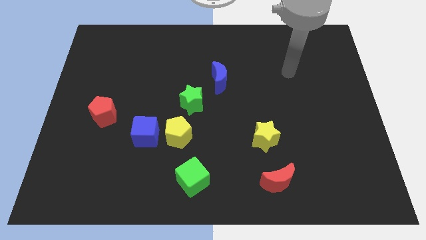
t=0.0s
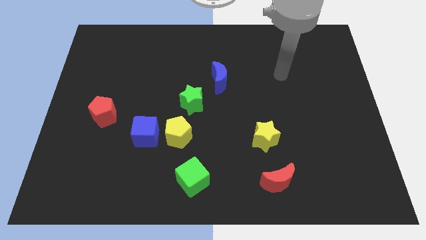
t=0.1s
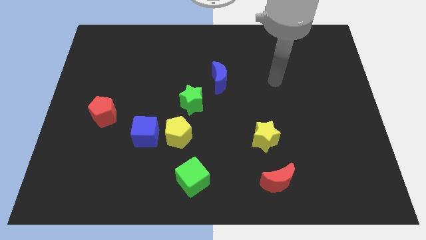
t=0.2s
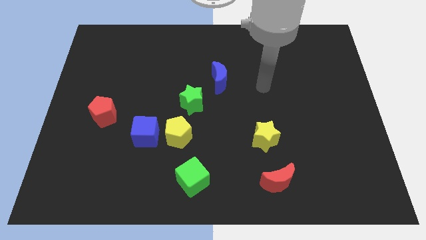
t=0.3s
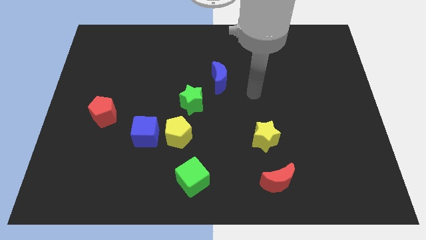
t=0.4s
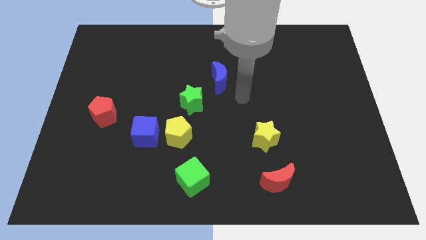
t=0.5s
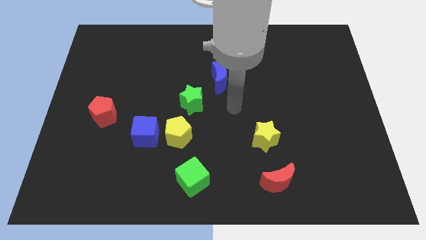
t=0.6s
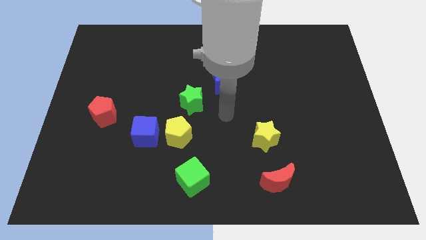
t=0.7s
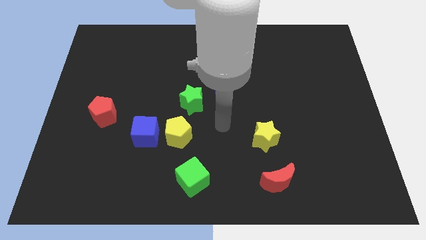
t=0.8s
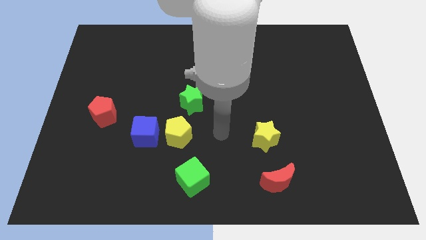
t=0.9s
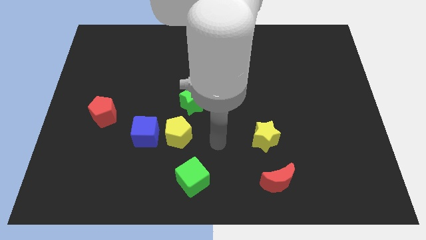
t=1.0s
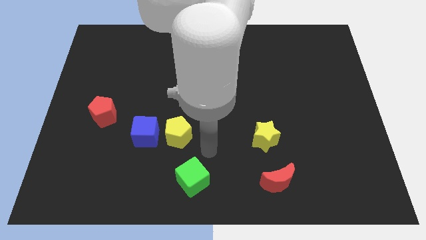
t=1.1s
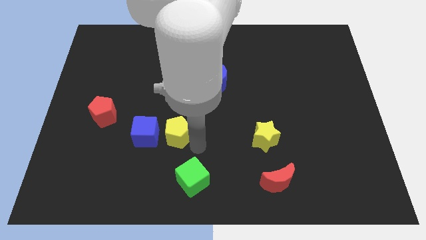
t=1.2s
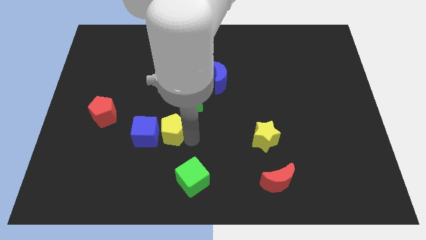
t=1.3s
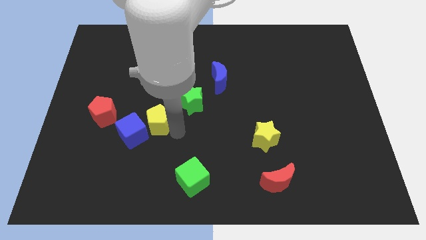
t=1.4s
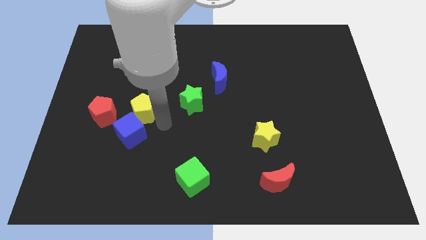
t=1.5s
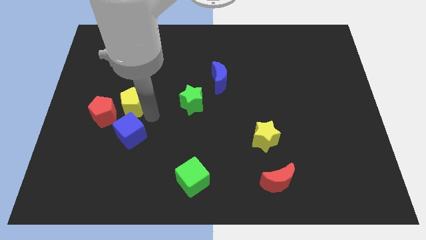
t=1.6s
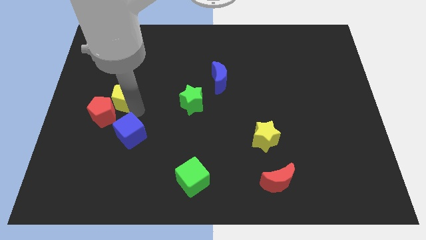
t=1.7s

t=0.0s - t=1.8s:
separate the blue cube from the yellow pentagon

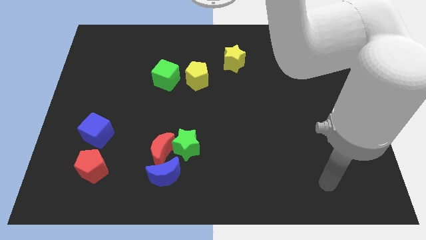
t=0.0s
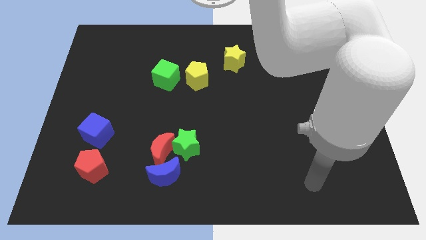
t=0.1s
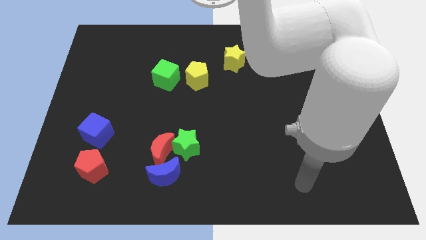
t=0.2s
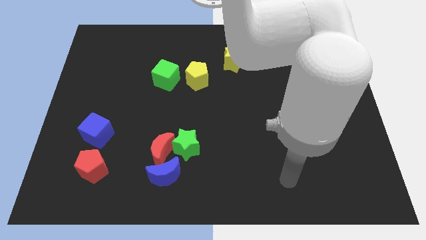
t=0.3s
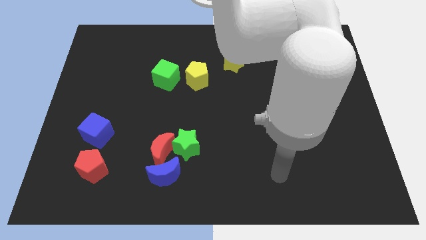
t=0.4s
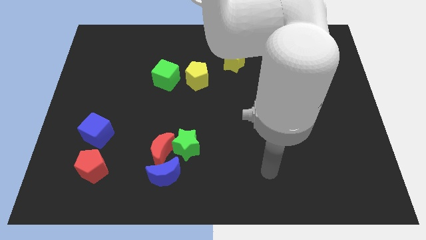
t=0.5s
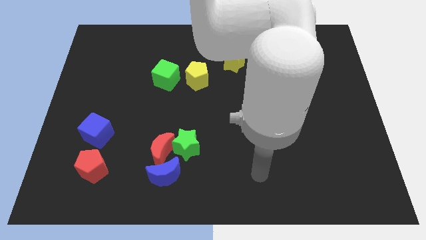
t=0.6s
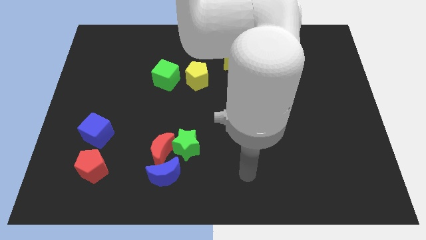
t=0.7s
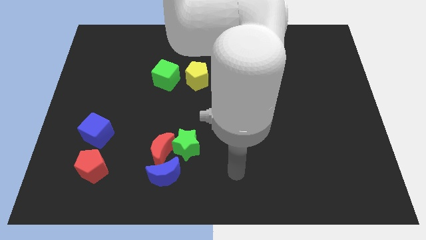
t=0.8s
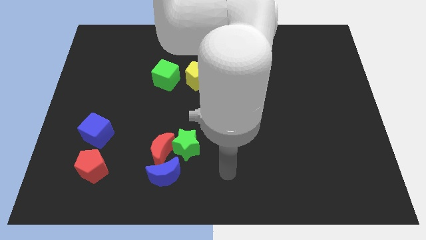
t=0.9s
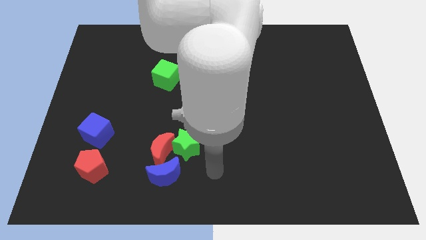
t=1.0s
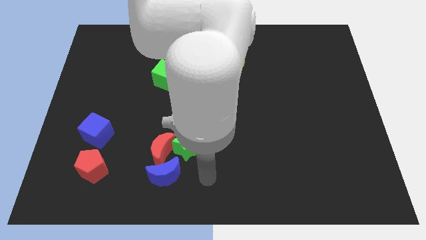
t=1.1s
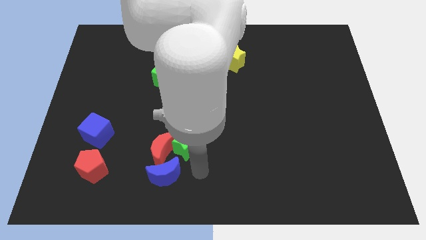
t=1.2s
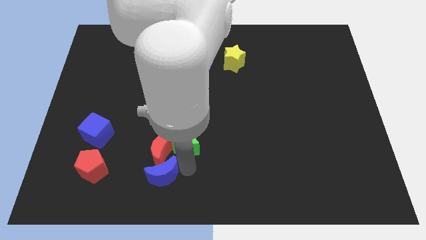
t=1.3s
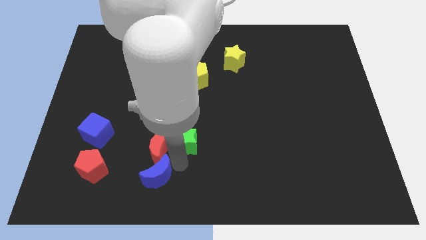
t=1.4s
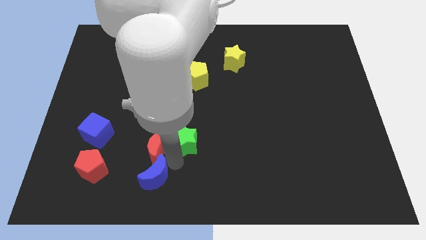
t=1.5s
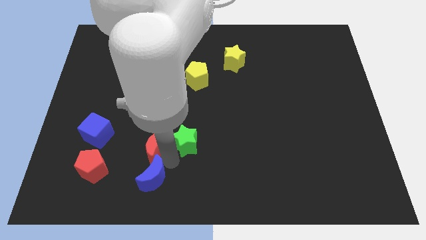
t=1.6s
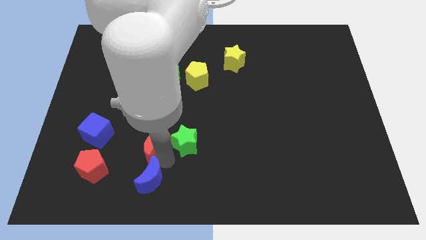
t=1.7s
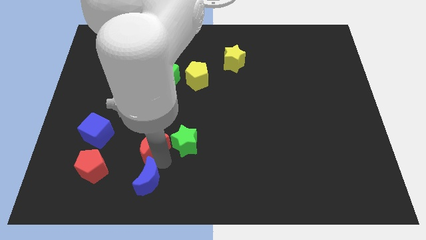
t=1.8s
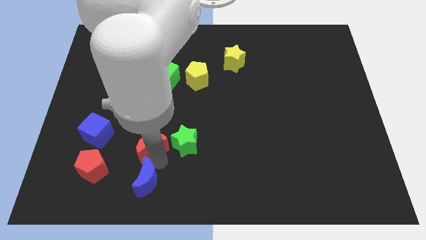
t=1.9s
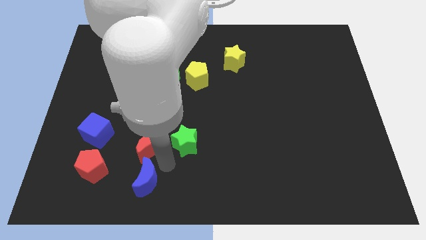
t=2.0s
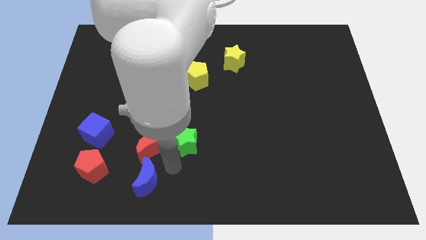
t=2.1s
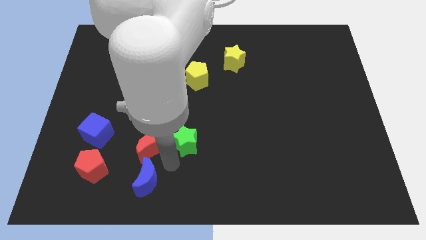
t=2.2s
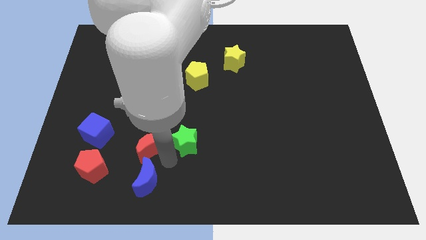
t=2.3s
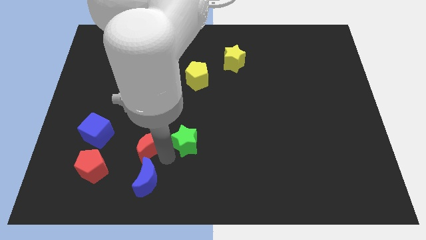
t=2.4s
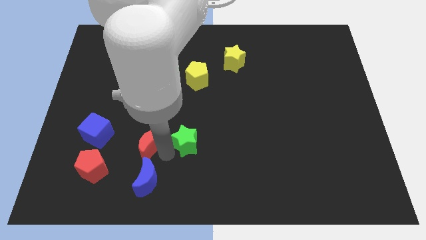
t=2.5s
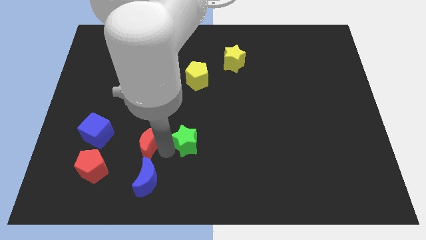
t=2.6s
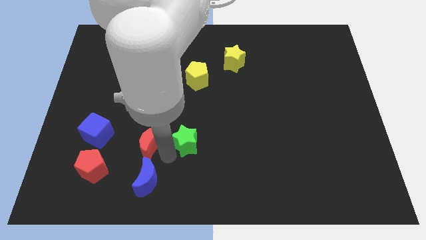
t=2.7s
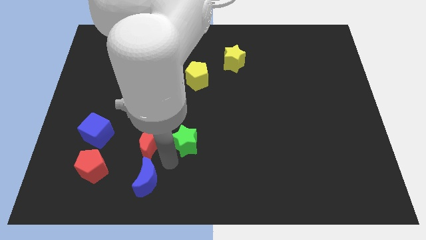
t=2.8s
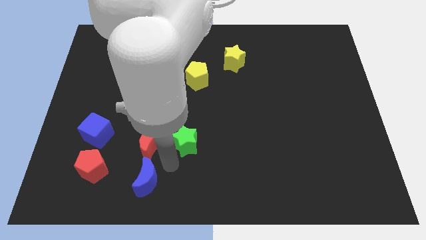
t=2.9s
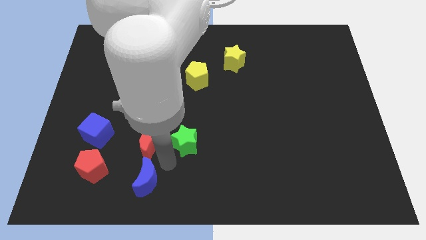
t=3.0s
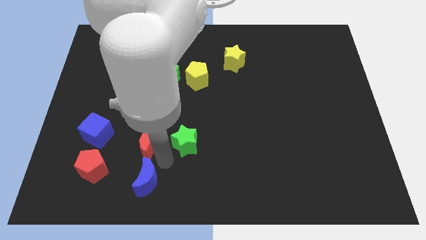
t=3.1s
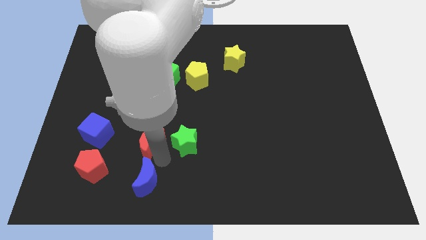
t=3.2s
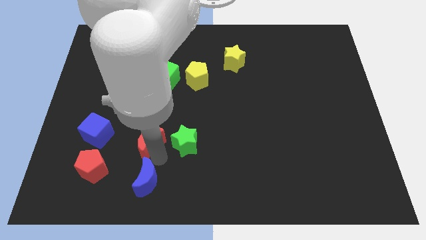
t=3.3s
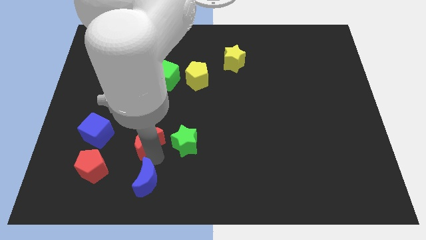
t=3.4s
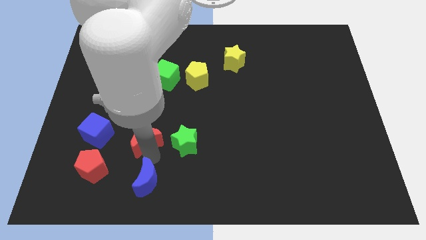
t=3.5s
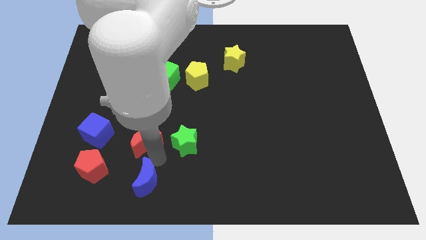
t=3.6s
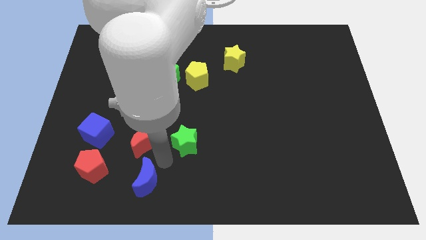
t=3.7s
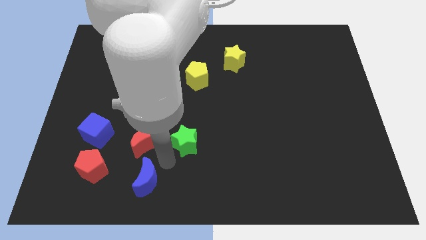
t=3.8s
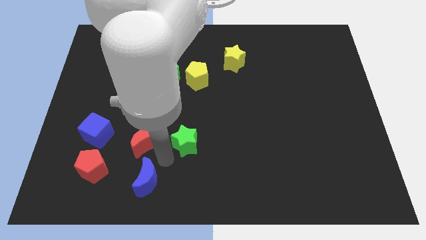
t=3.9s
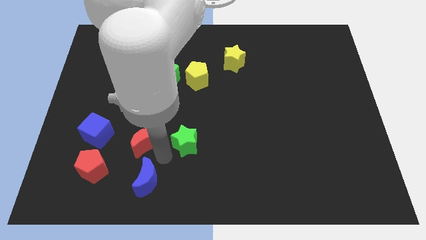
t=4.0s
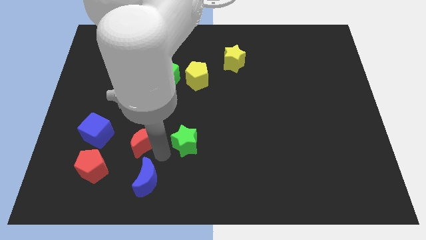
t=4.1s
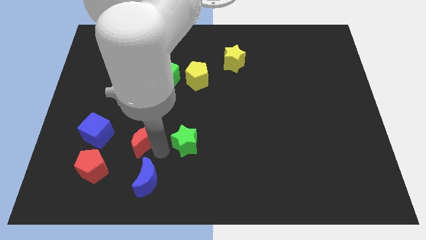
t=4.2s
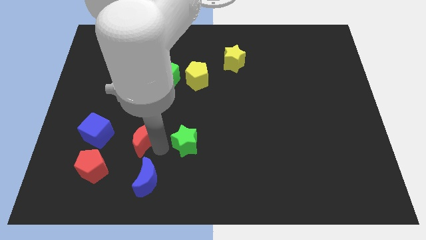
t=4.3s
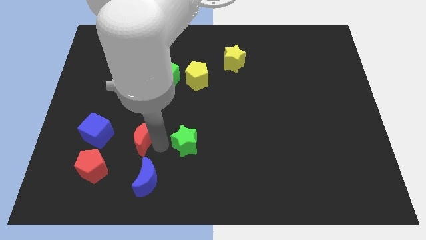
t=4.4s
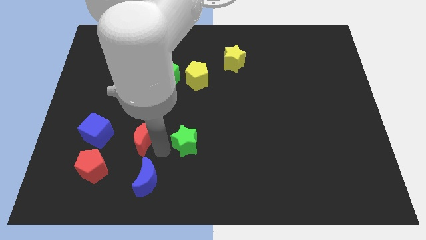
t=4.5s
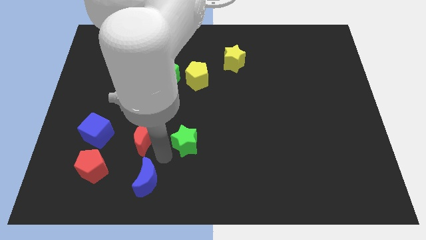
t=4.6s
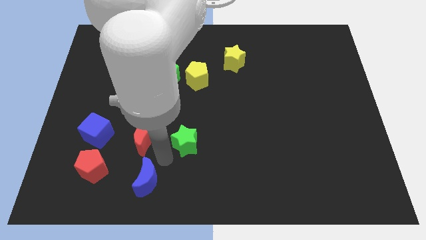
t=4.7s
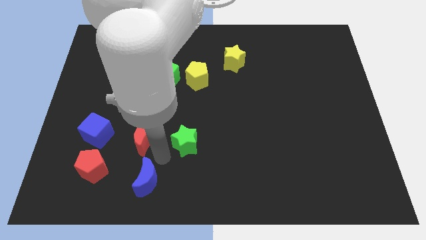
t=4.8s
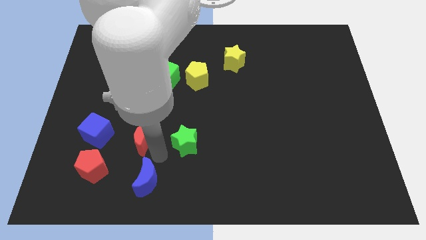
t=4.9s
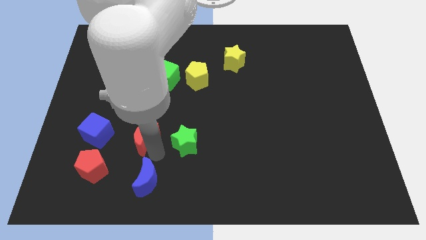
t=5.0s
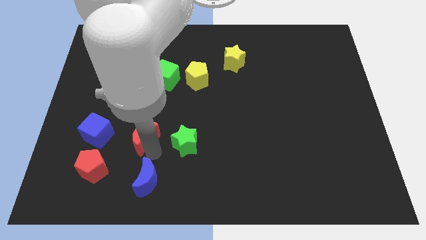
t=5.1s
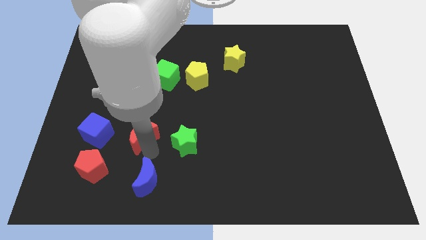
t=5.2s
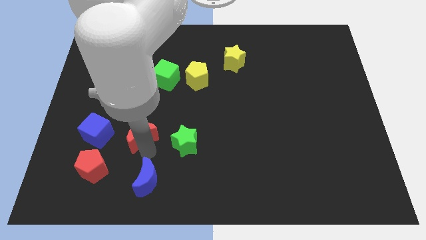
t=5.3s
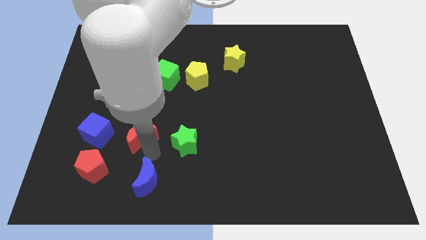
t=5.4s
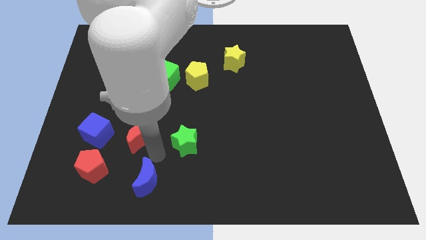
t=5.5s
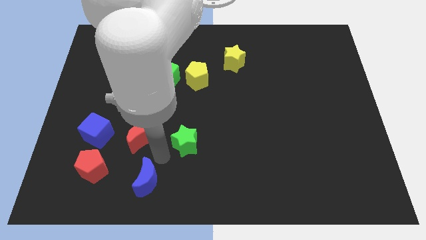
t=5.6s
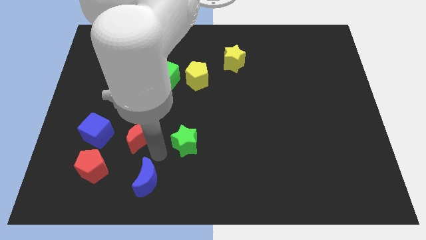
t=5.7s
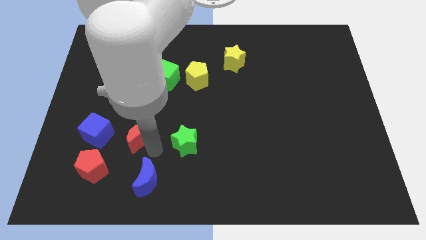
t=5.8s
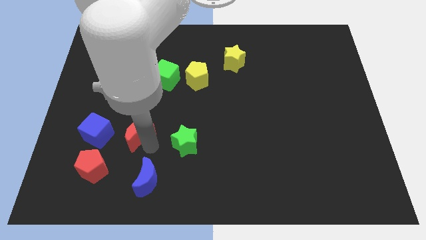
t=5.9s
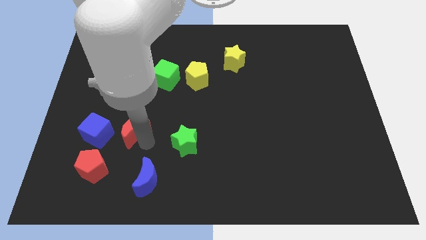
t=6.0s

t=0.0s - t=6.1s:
pull the red moon apart from the green star and blue moon

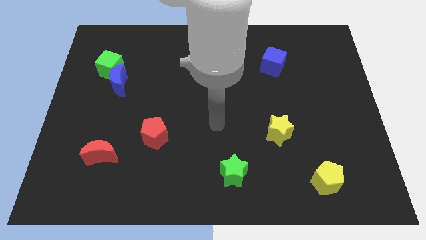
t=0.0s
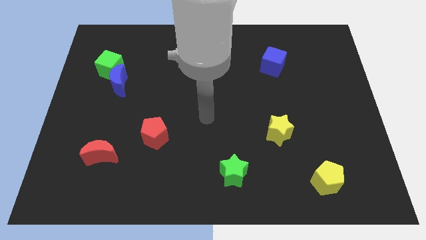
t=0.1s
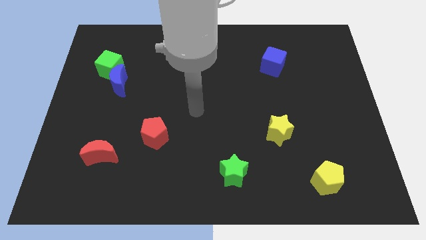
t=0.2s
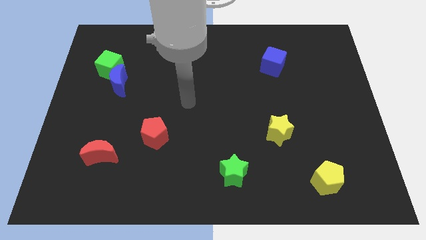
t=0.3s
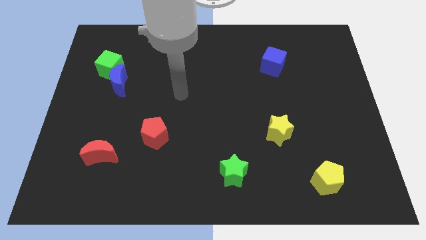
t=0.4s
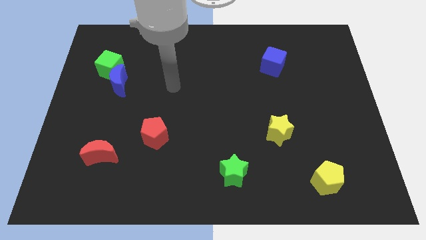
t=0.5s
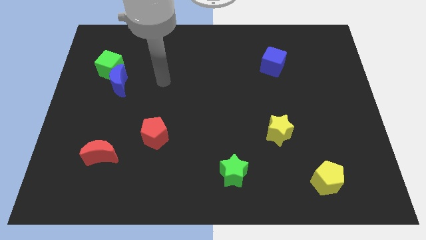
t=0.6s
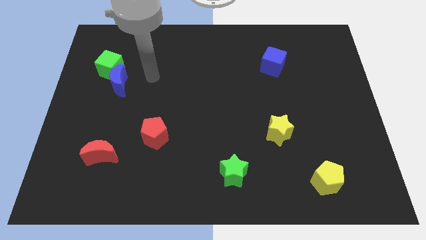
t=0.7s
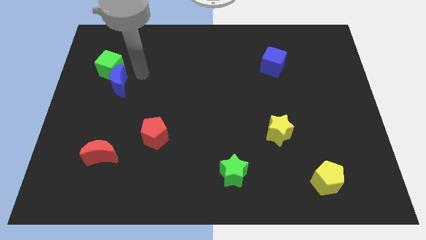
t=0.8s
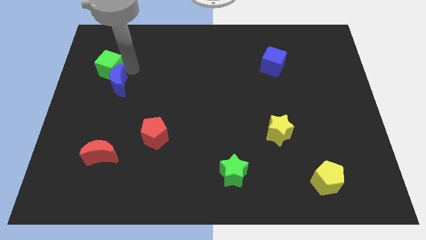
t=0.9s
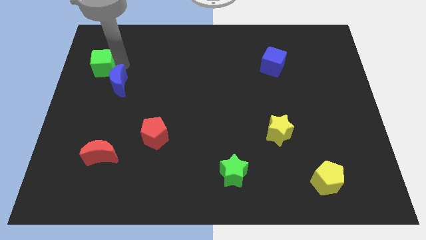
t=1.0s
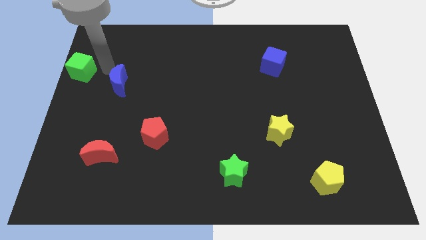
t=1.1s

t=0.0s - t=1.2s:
separate the blue moon from the green cube

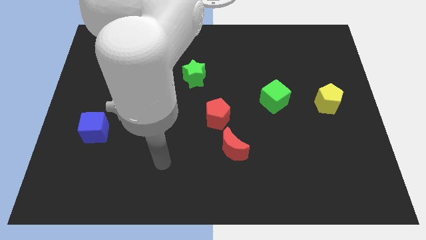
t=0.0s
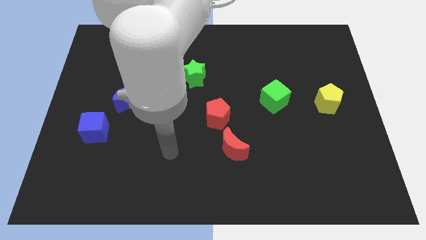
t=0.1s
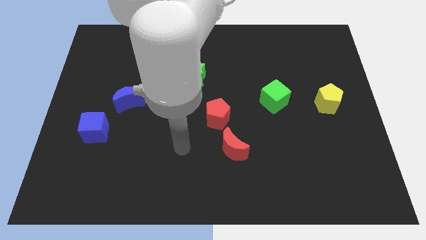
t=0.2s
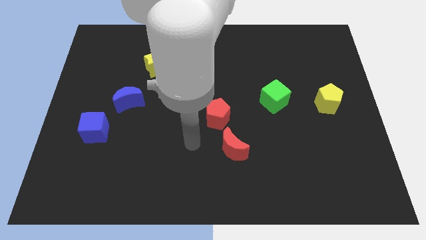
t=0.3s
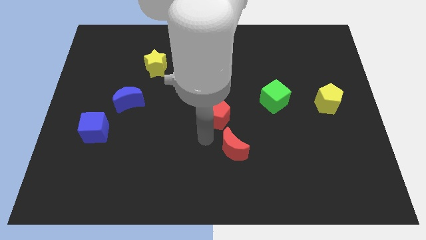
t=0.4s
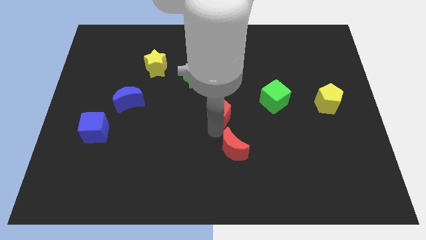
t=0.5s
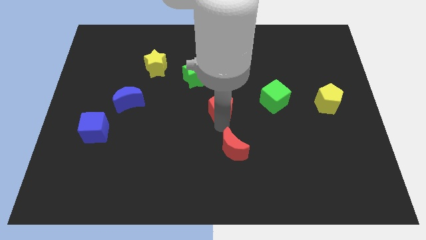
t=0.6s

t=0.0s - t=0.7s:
separate the red moon from the red pentagon
